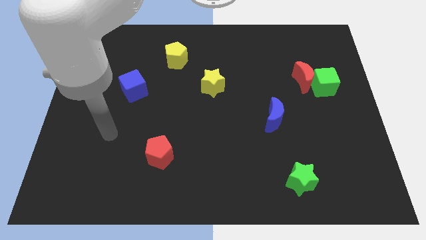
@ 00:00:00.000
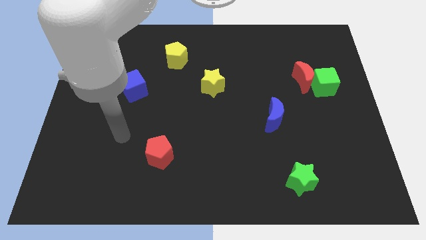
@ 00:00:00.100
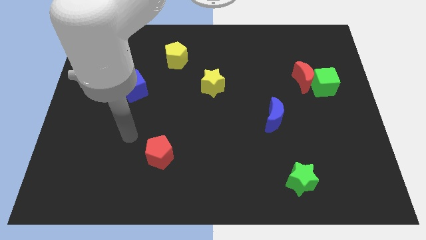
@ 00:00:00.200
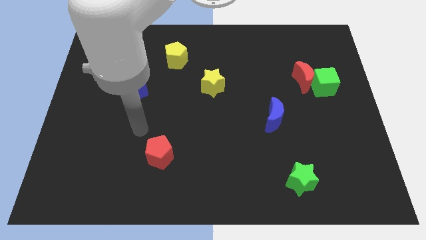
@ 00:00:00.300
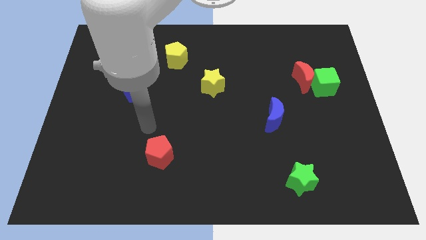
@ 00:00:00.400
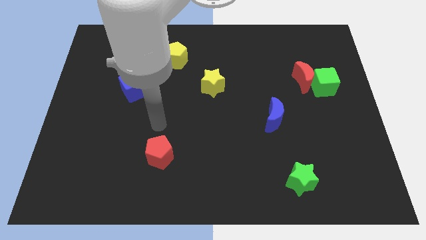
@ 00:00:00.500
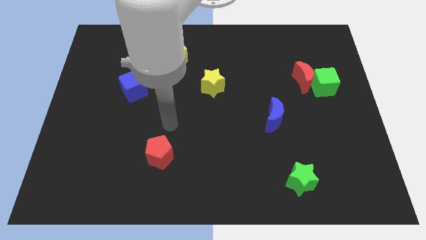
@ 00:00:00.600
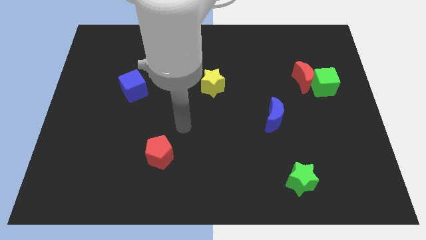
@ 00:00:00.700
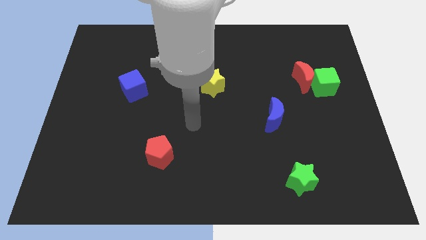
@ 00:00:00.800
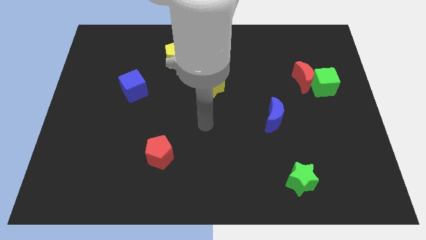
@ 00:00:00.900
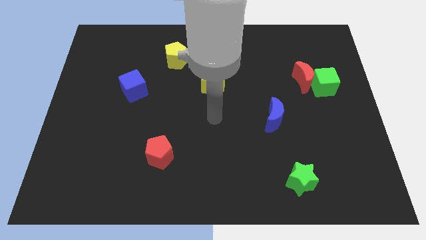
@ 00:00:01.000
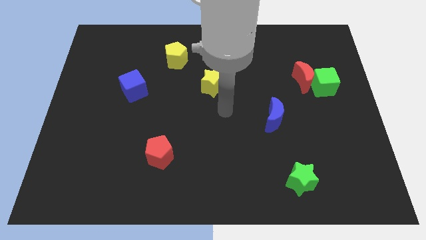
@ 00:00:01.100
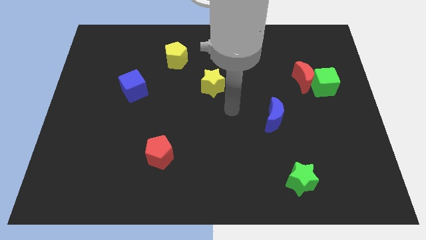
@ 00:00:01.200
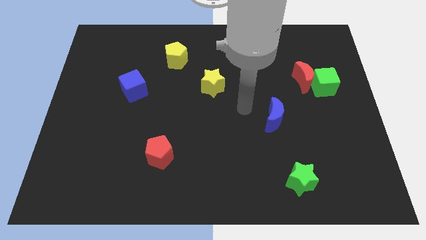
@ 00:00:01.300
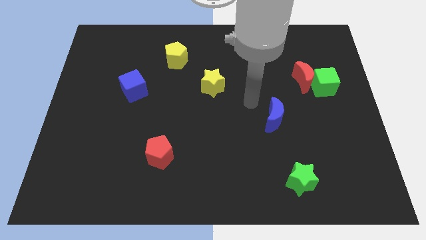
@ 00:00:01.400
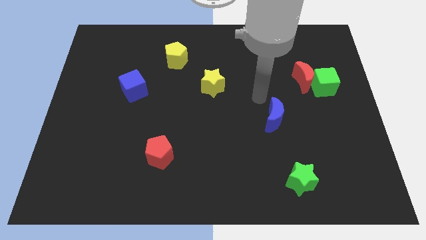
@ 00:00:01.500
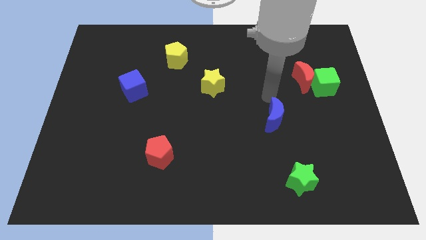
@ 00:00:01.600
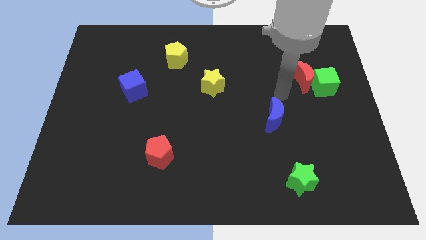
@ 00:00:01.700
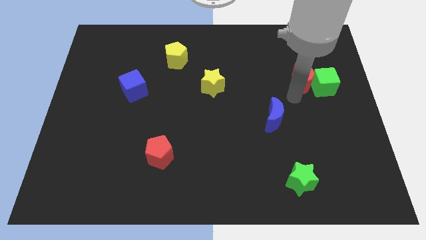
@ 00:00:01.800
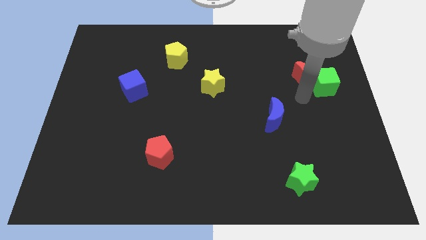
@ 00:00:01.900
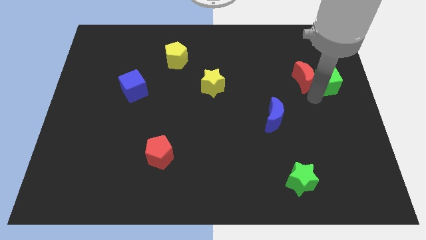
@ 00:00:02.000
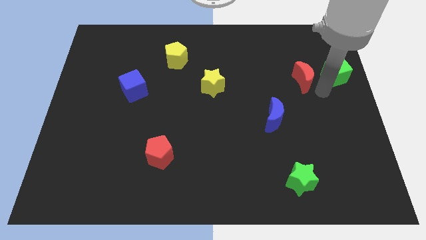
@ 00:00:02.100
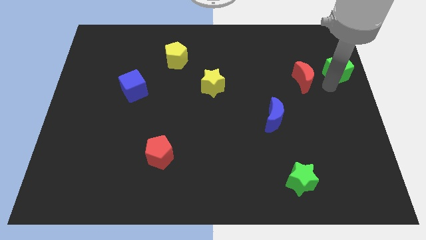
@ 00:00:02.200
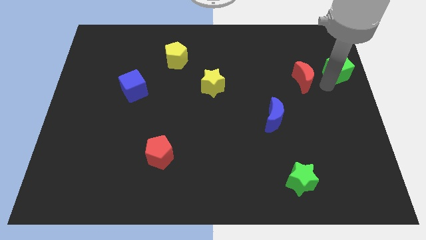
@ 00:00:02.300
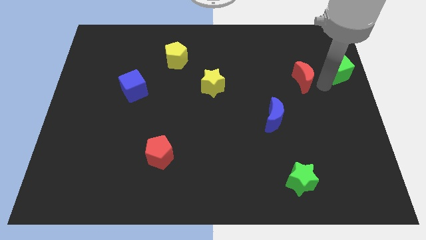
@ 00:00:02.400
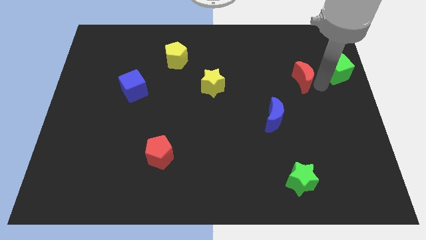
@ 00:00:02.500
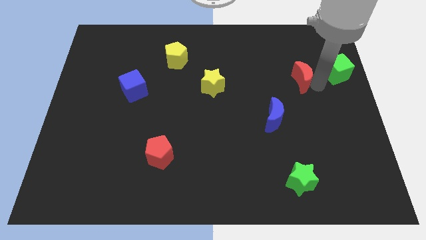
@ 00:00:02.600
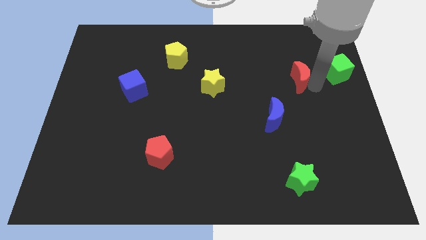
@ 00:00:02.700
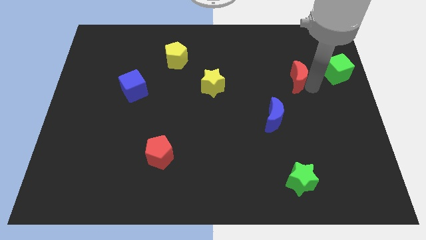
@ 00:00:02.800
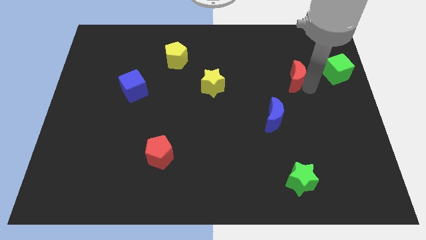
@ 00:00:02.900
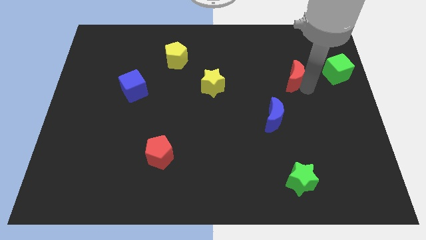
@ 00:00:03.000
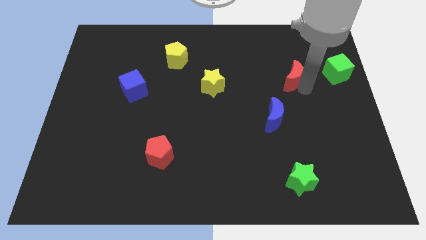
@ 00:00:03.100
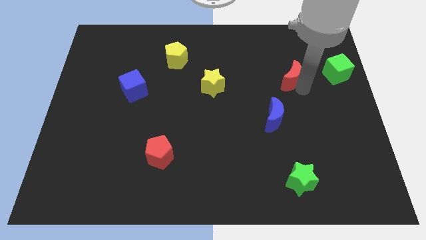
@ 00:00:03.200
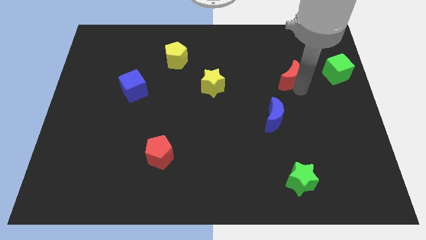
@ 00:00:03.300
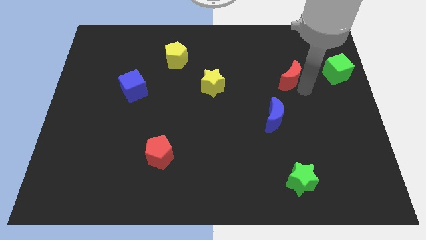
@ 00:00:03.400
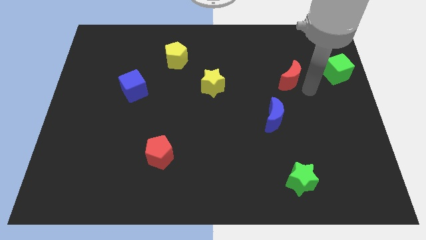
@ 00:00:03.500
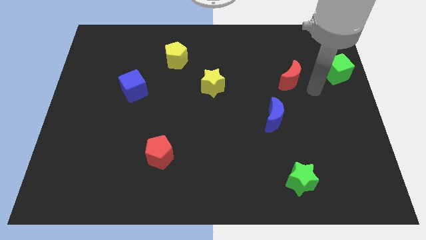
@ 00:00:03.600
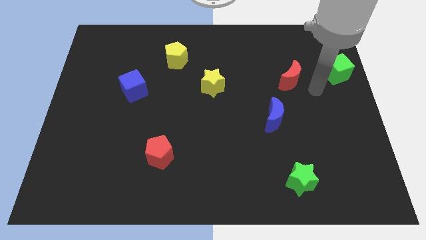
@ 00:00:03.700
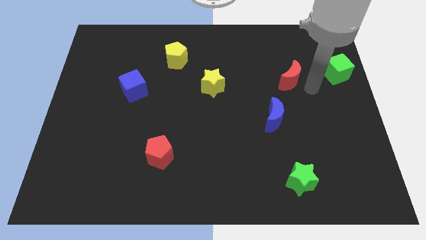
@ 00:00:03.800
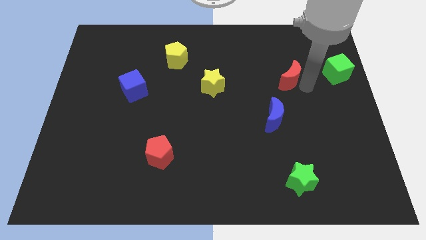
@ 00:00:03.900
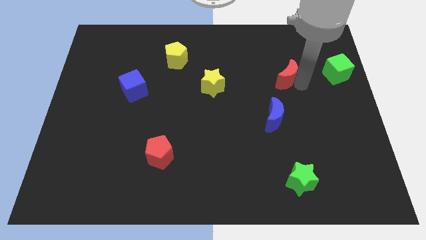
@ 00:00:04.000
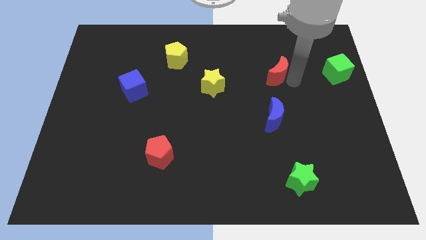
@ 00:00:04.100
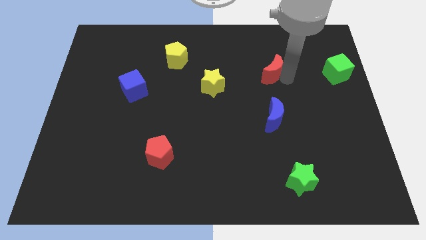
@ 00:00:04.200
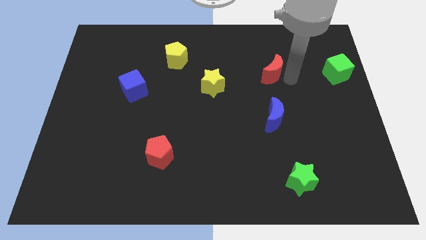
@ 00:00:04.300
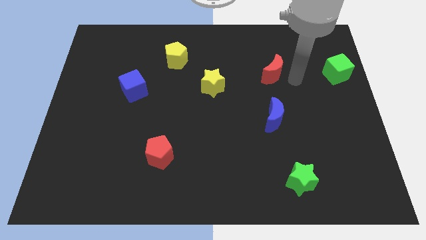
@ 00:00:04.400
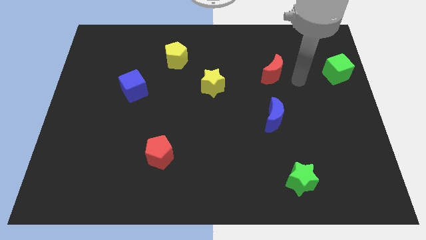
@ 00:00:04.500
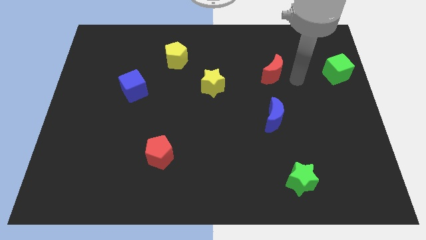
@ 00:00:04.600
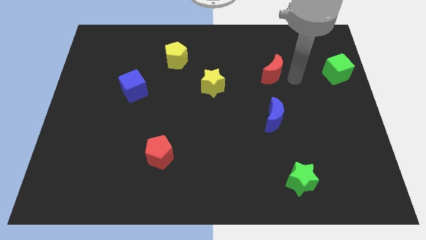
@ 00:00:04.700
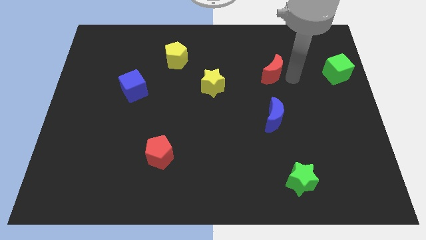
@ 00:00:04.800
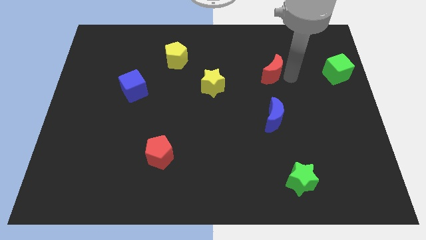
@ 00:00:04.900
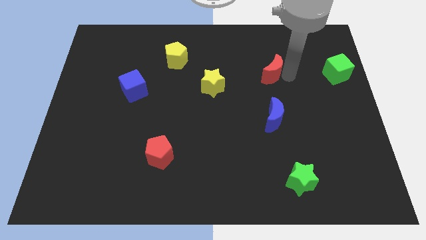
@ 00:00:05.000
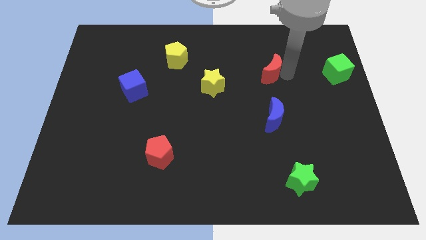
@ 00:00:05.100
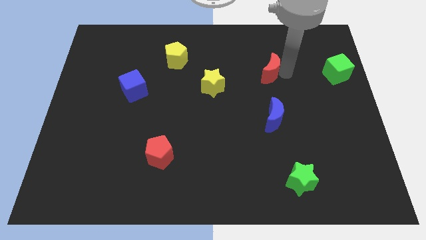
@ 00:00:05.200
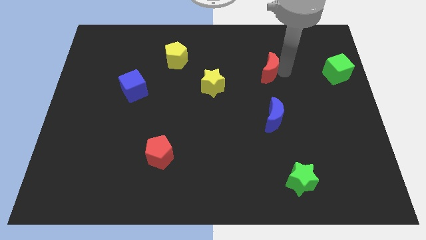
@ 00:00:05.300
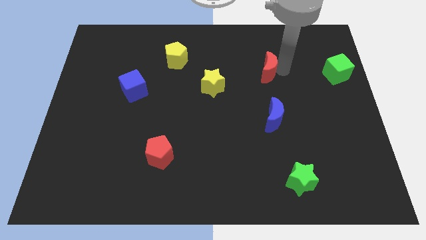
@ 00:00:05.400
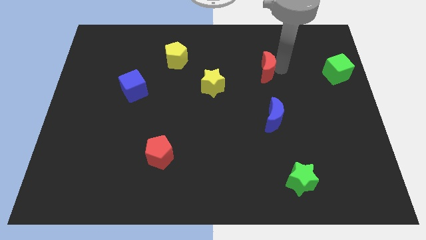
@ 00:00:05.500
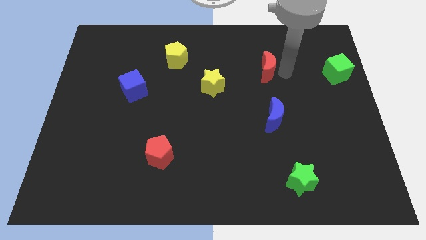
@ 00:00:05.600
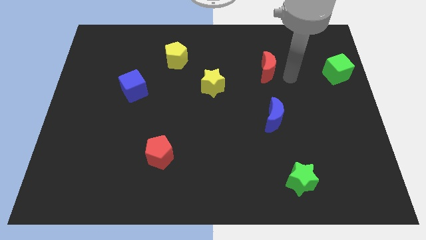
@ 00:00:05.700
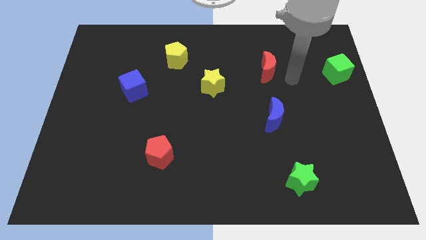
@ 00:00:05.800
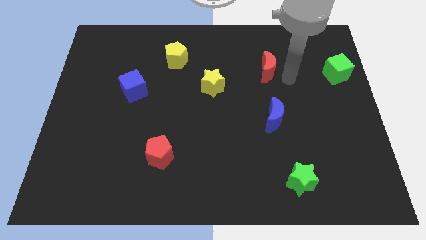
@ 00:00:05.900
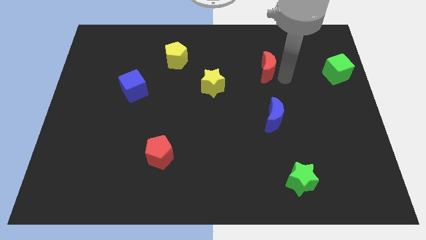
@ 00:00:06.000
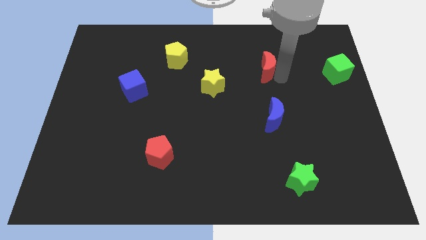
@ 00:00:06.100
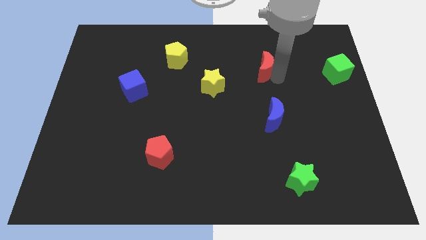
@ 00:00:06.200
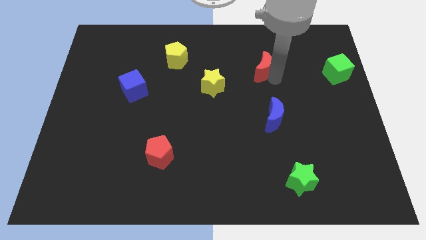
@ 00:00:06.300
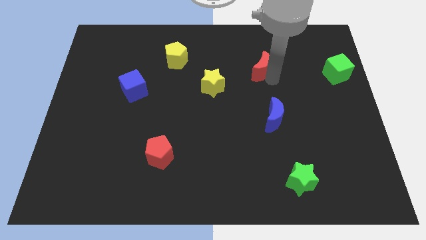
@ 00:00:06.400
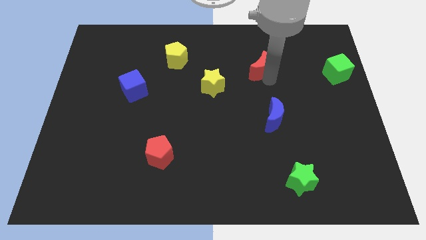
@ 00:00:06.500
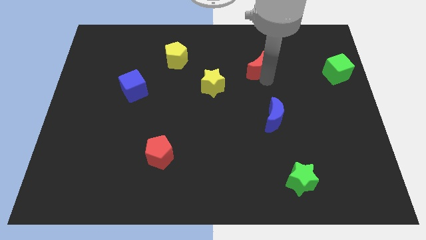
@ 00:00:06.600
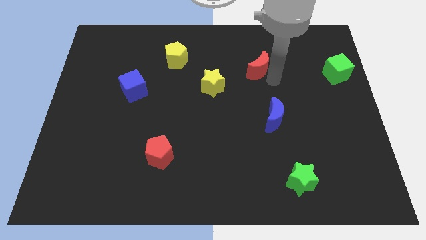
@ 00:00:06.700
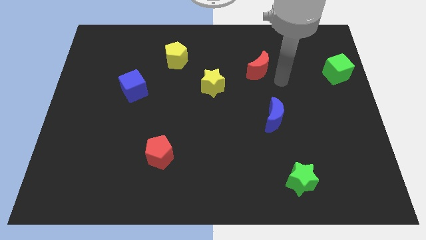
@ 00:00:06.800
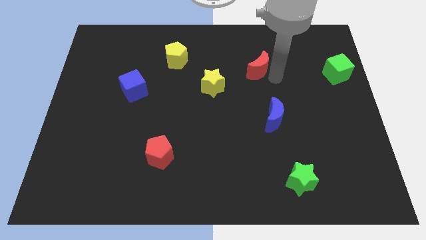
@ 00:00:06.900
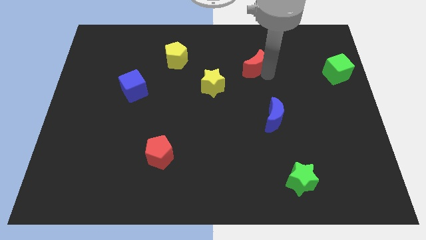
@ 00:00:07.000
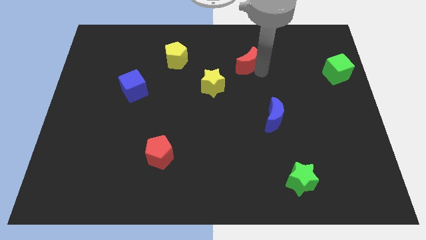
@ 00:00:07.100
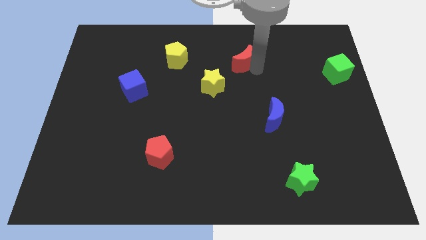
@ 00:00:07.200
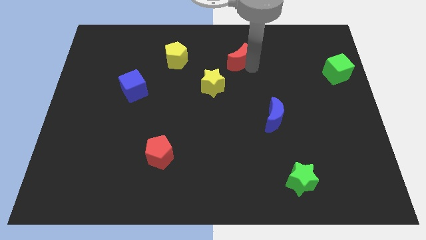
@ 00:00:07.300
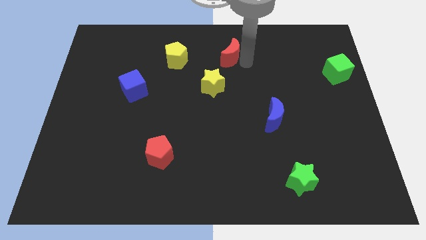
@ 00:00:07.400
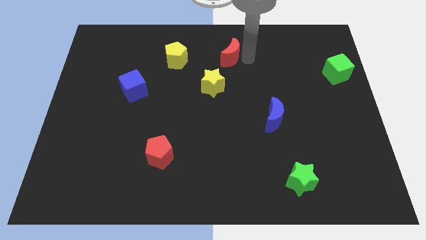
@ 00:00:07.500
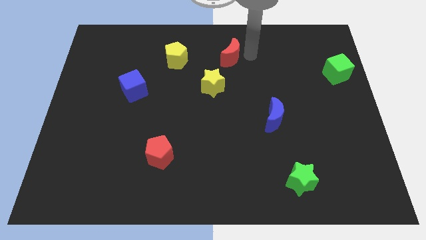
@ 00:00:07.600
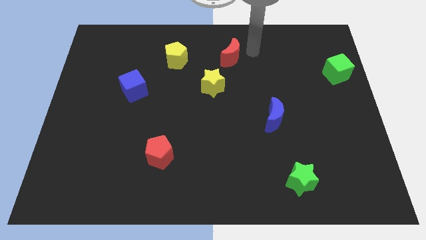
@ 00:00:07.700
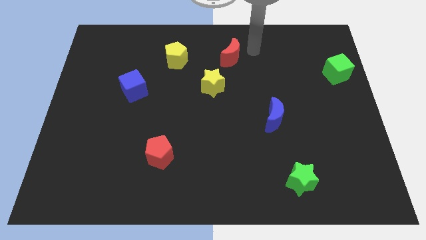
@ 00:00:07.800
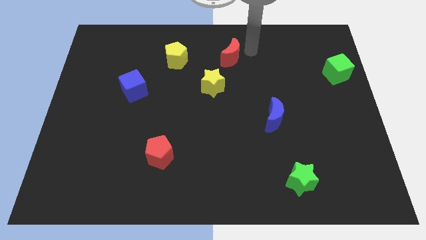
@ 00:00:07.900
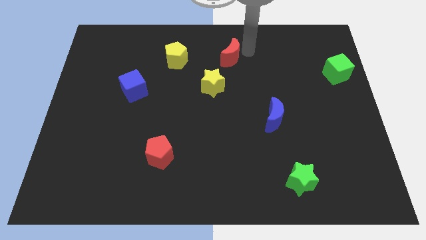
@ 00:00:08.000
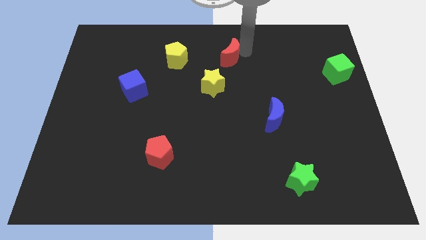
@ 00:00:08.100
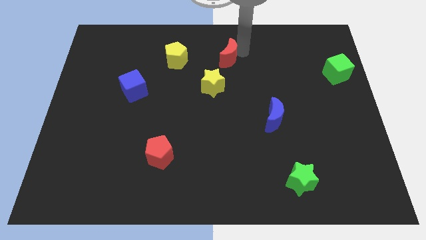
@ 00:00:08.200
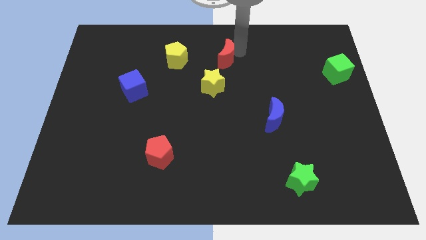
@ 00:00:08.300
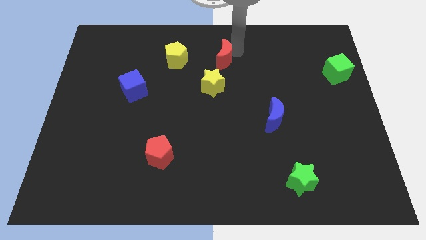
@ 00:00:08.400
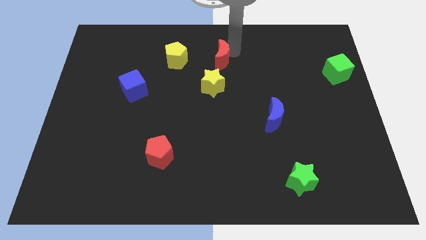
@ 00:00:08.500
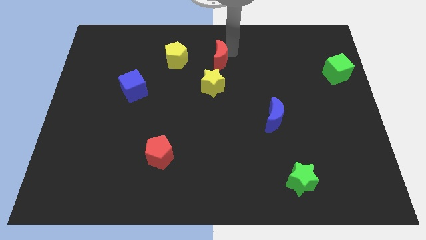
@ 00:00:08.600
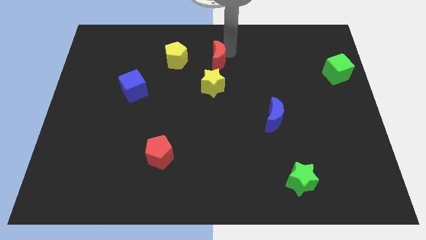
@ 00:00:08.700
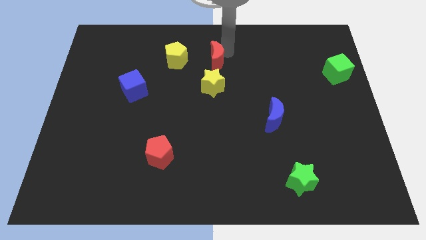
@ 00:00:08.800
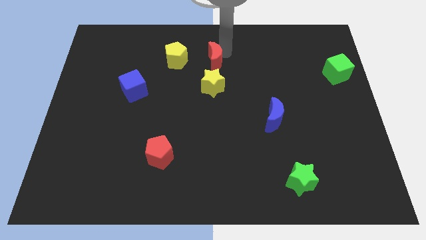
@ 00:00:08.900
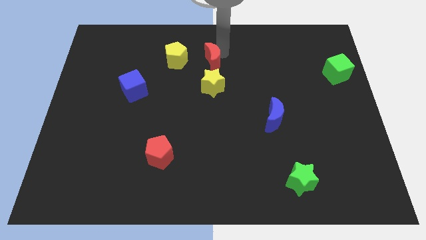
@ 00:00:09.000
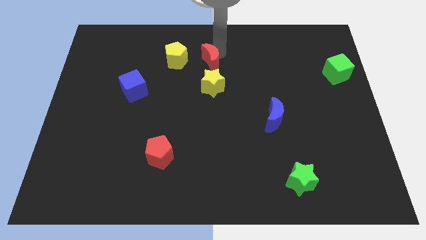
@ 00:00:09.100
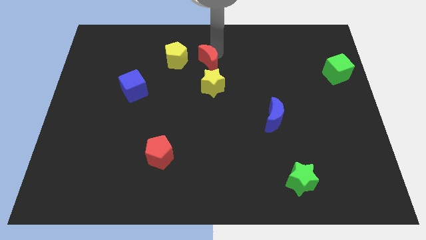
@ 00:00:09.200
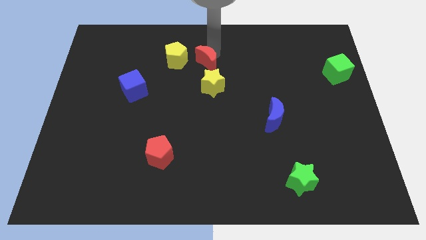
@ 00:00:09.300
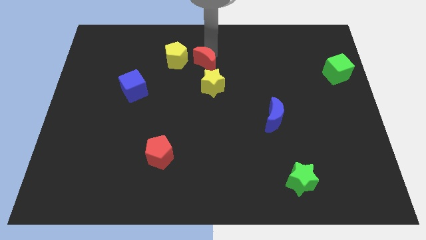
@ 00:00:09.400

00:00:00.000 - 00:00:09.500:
put the red moon to the top left of the yellow star
